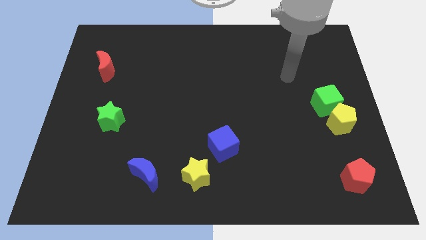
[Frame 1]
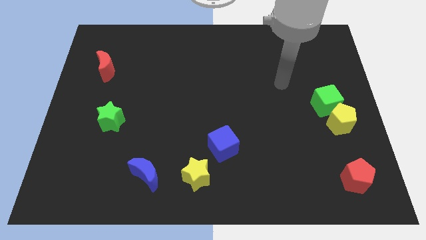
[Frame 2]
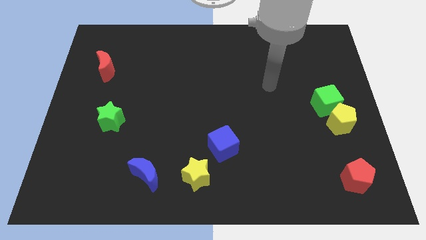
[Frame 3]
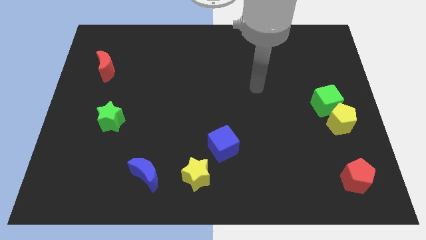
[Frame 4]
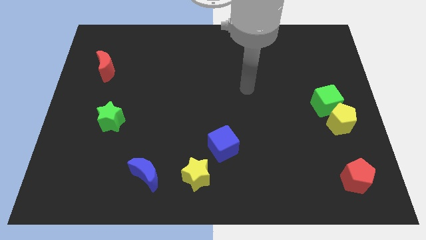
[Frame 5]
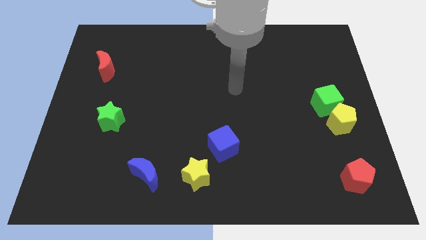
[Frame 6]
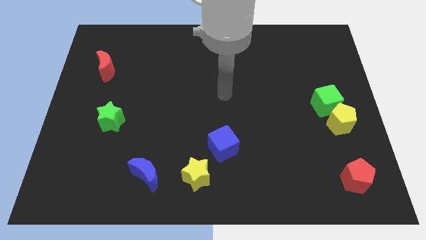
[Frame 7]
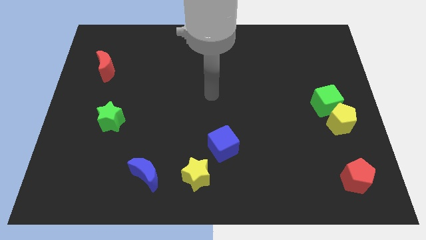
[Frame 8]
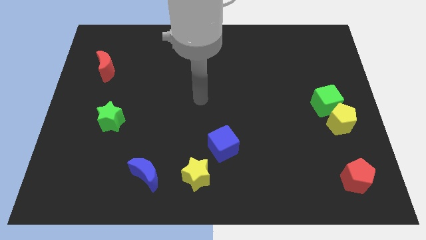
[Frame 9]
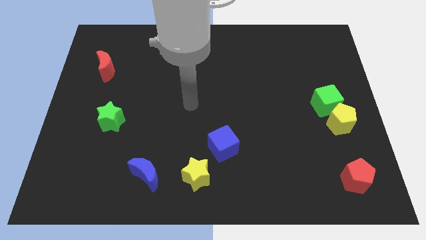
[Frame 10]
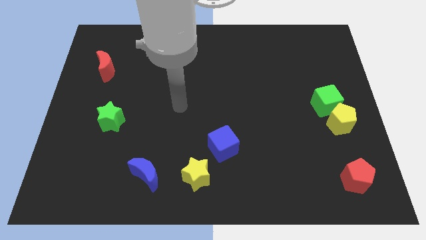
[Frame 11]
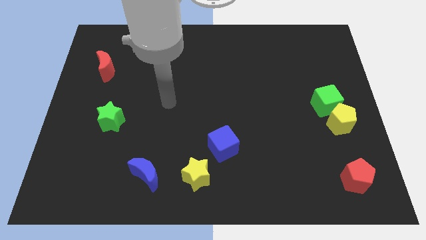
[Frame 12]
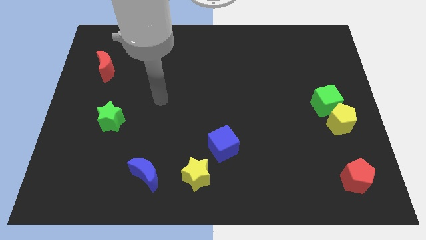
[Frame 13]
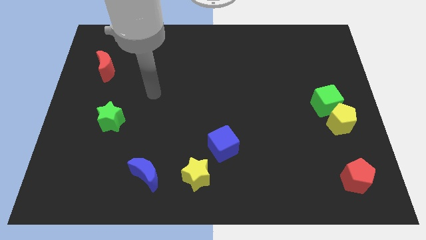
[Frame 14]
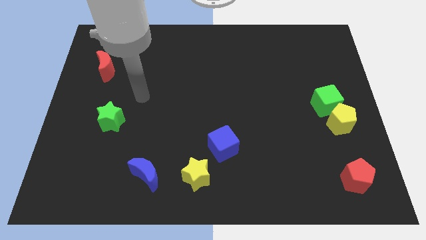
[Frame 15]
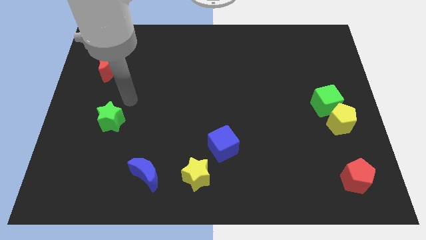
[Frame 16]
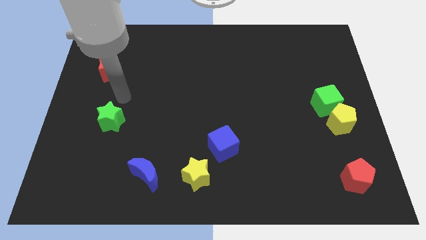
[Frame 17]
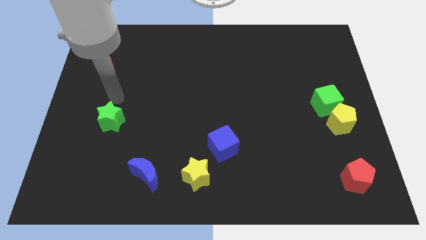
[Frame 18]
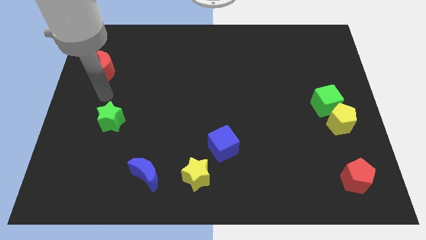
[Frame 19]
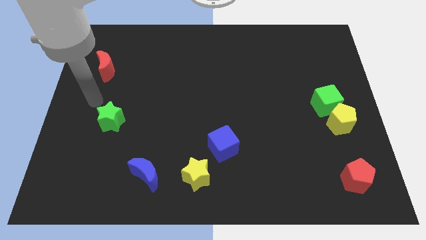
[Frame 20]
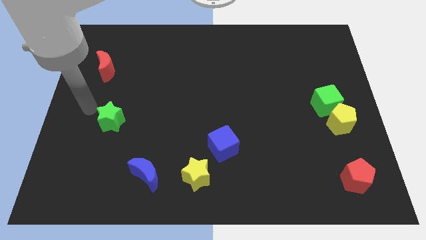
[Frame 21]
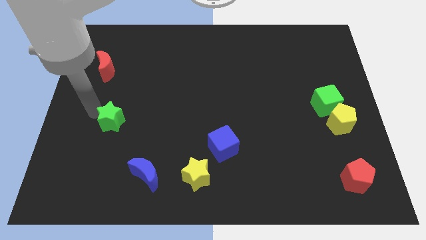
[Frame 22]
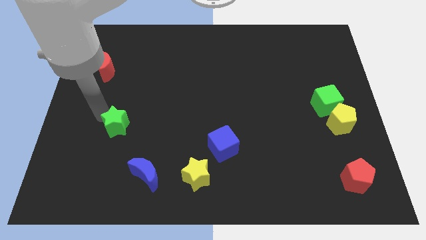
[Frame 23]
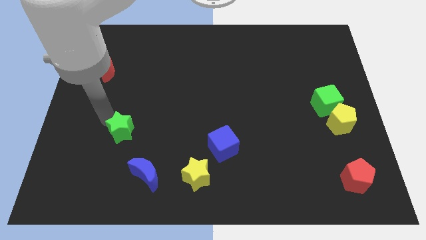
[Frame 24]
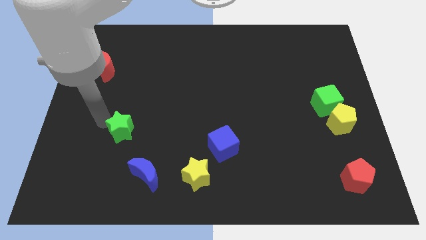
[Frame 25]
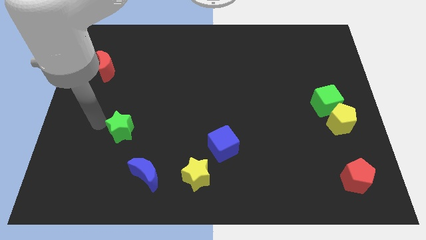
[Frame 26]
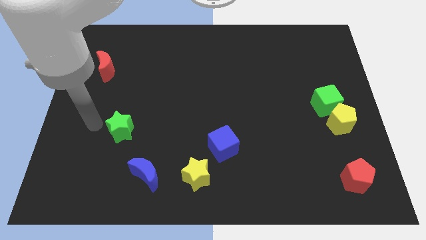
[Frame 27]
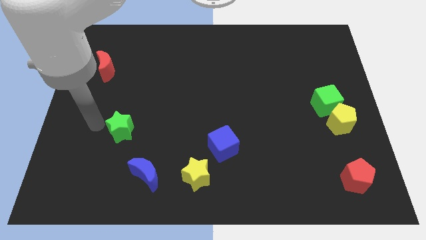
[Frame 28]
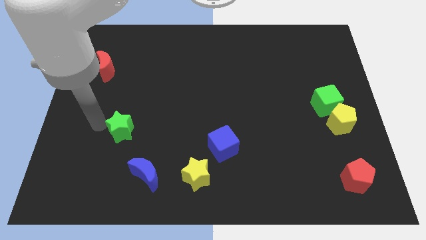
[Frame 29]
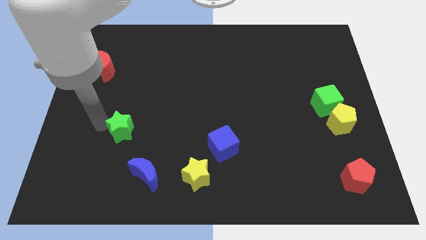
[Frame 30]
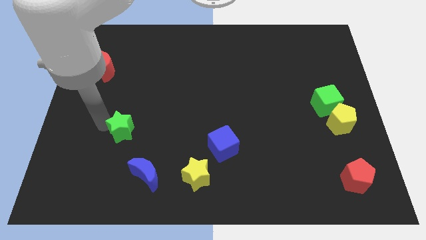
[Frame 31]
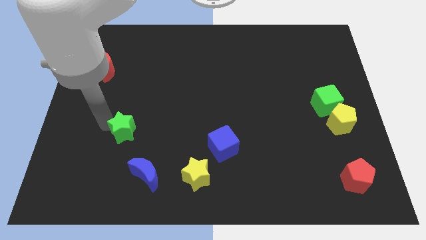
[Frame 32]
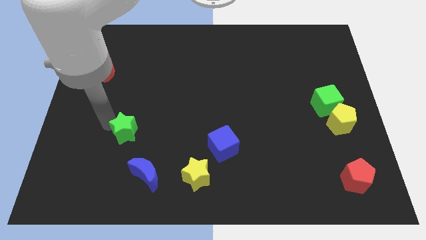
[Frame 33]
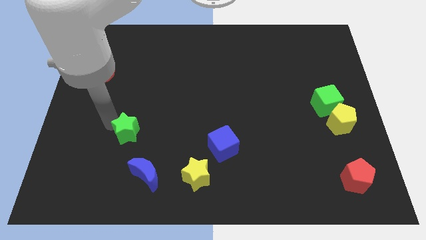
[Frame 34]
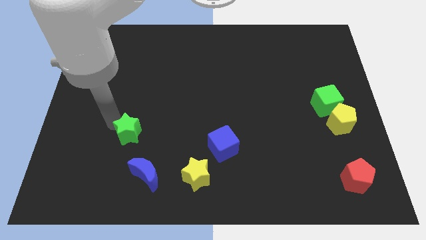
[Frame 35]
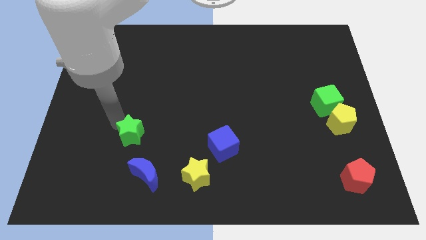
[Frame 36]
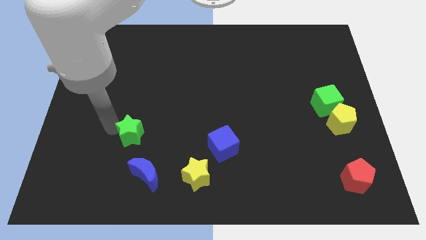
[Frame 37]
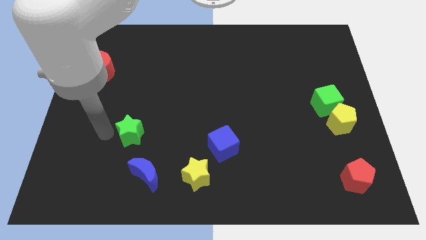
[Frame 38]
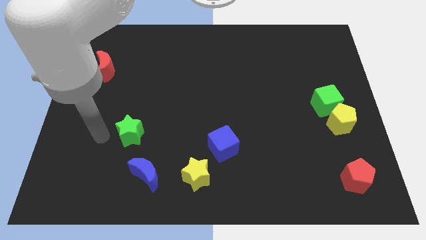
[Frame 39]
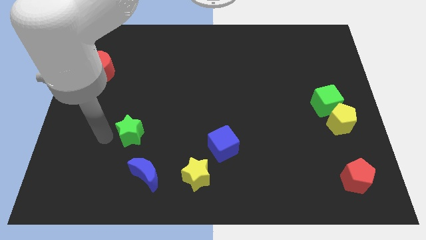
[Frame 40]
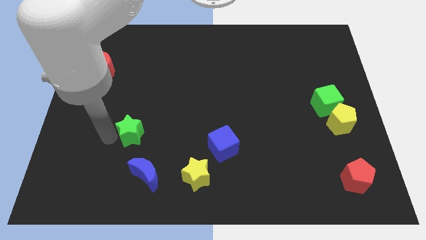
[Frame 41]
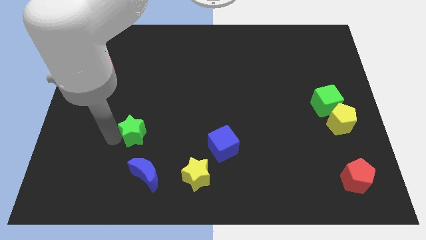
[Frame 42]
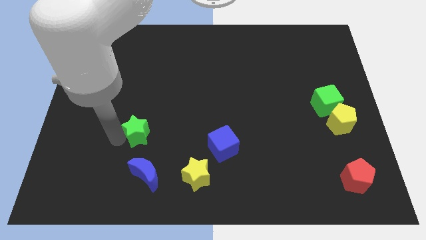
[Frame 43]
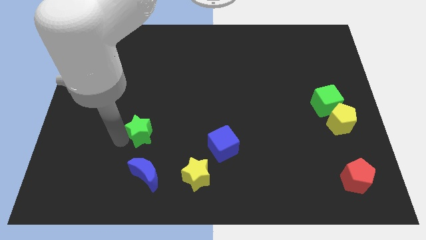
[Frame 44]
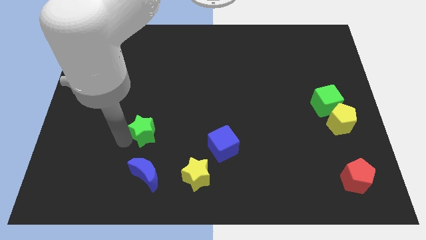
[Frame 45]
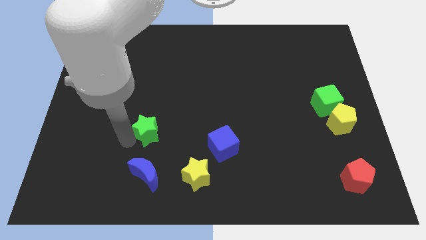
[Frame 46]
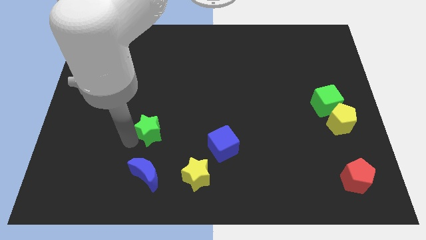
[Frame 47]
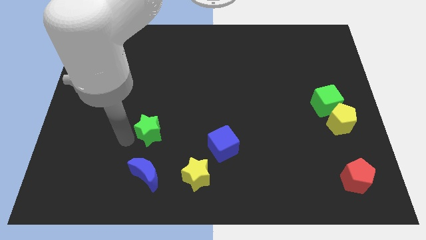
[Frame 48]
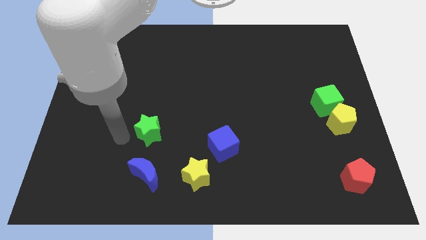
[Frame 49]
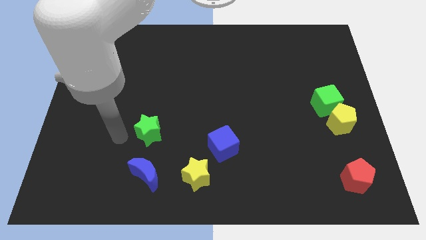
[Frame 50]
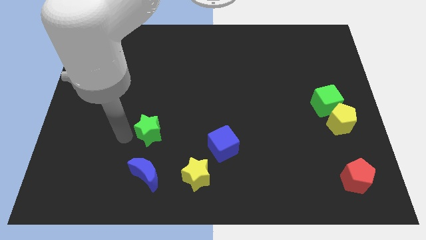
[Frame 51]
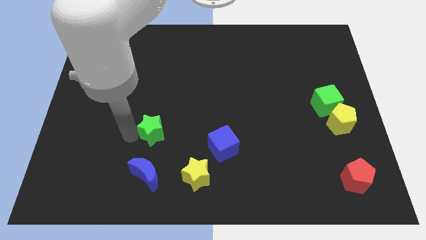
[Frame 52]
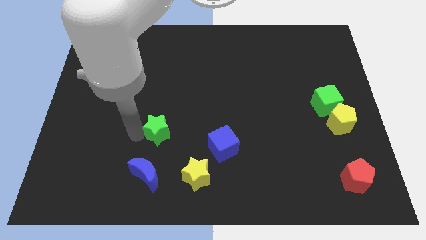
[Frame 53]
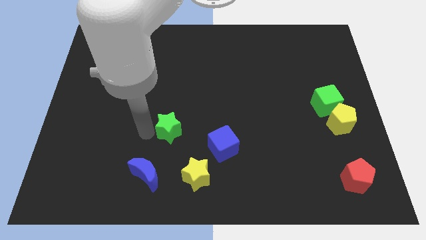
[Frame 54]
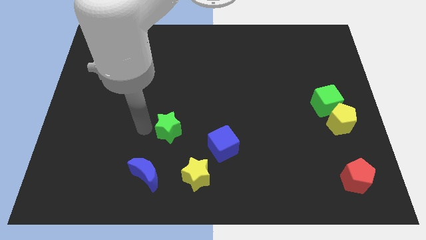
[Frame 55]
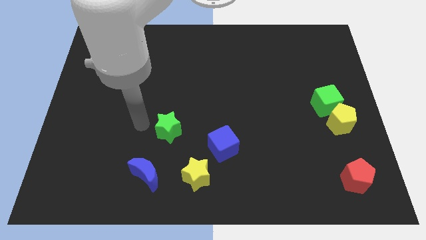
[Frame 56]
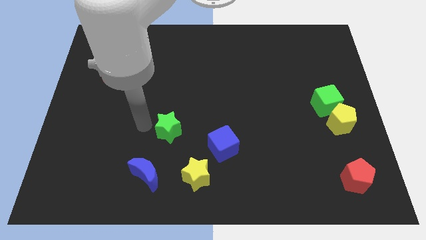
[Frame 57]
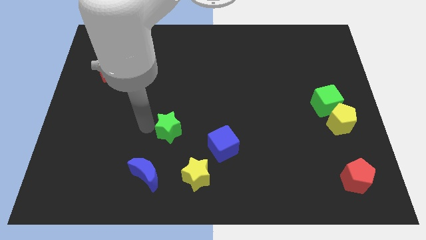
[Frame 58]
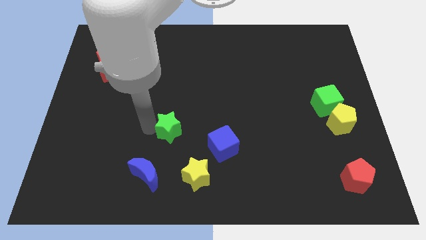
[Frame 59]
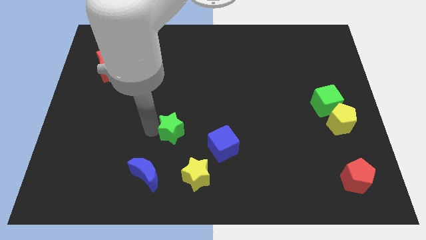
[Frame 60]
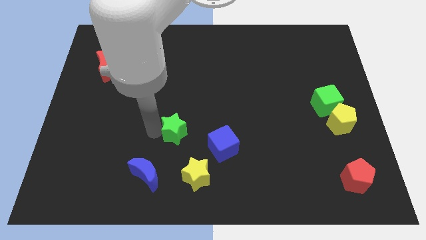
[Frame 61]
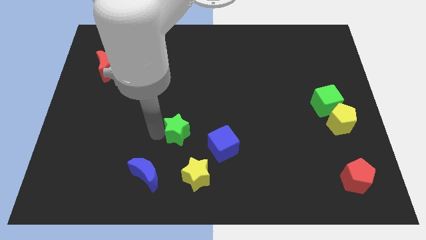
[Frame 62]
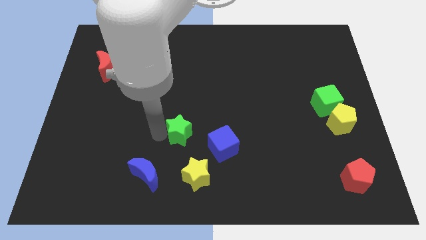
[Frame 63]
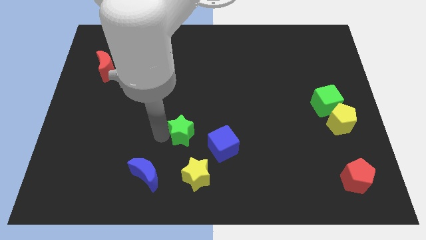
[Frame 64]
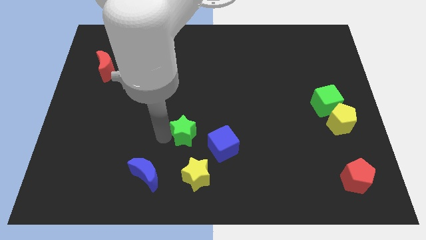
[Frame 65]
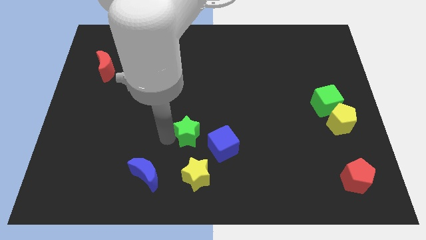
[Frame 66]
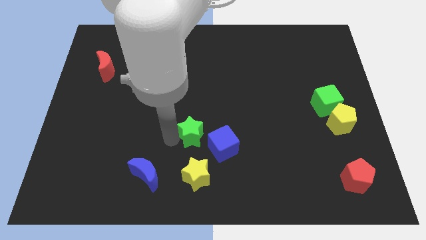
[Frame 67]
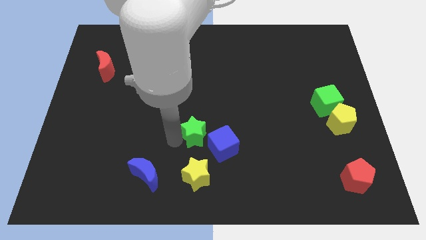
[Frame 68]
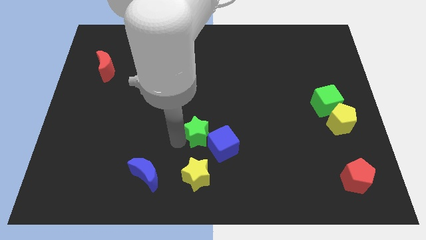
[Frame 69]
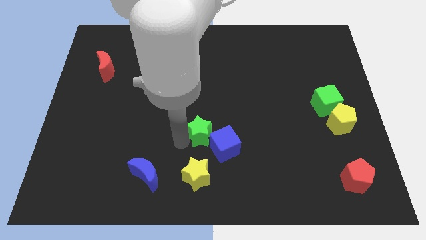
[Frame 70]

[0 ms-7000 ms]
put the green star next to the blue cube

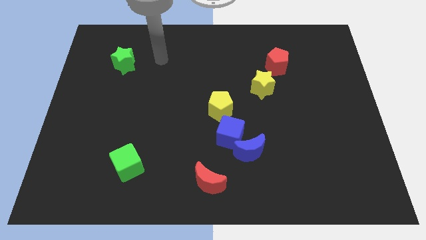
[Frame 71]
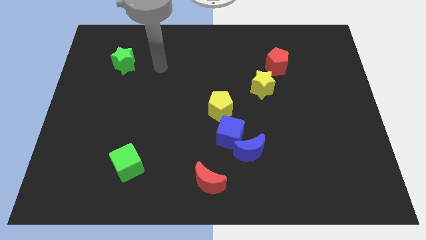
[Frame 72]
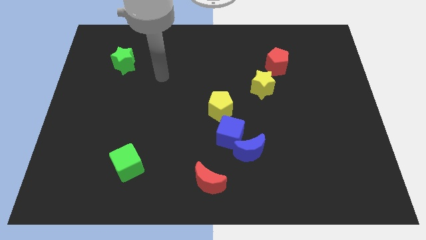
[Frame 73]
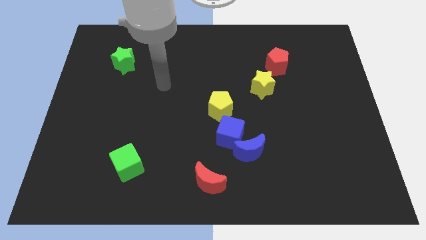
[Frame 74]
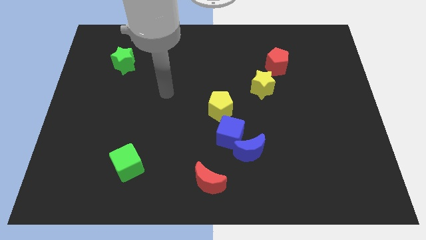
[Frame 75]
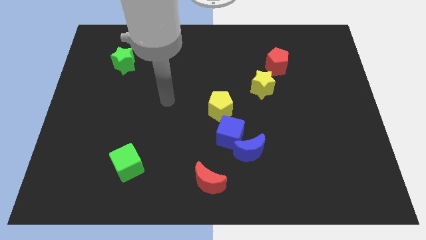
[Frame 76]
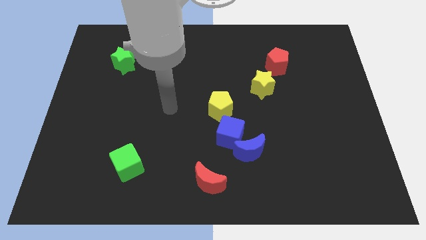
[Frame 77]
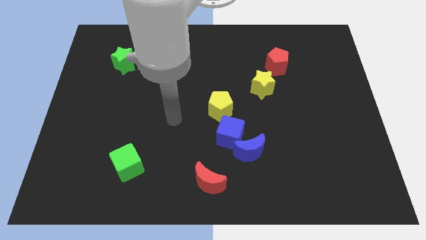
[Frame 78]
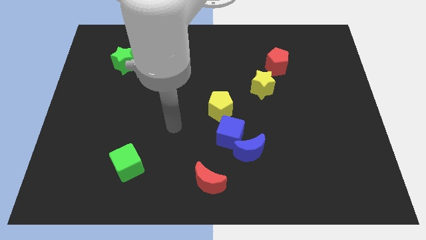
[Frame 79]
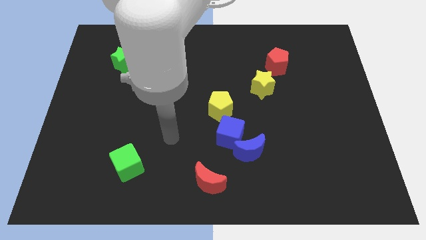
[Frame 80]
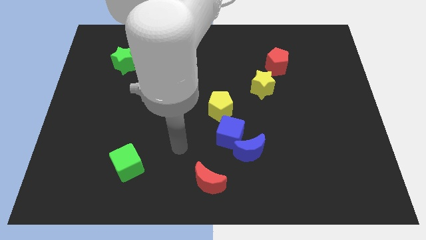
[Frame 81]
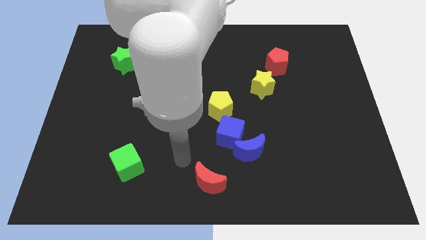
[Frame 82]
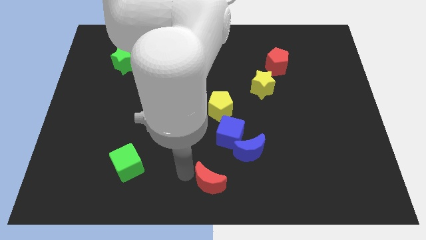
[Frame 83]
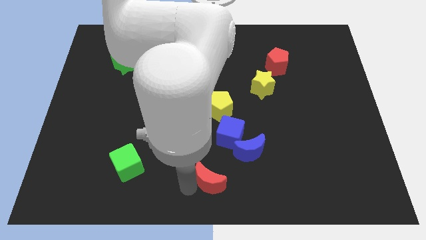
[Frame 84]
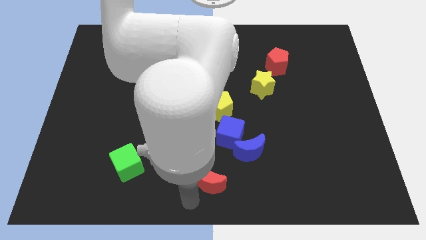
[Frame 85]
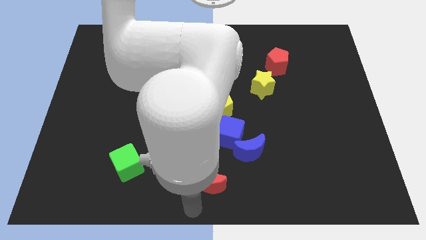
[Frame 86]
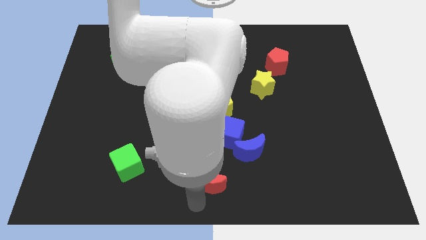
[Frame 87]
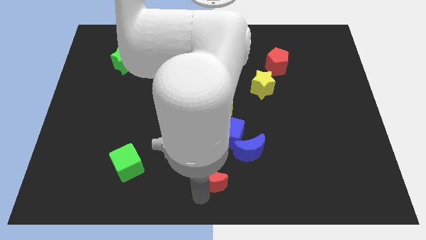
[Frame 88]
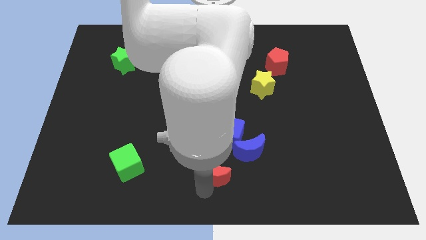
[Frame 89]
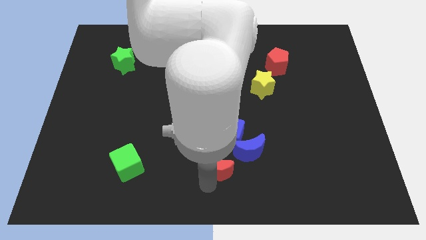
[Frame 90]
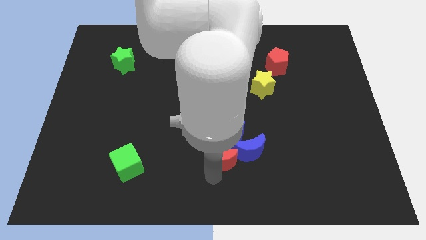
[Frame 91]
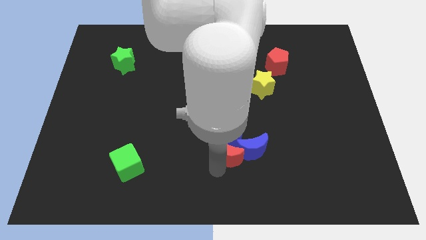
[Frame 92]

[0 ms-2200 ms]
slide the red moon to the blue cube
